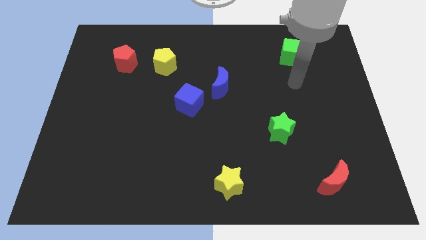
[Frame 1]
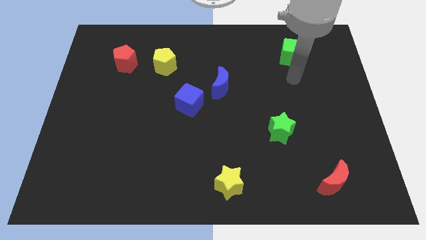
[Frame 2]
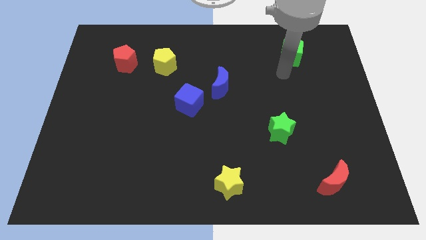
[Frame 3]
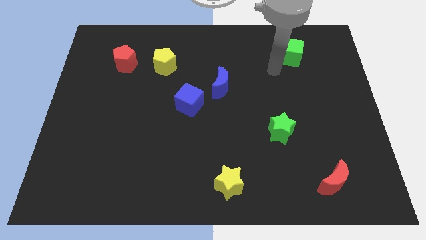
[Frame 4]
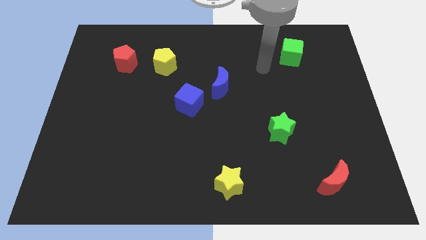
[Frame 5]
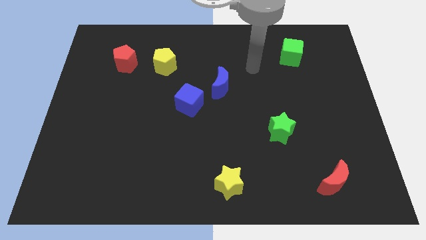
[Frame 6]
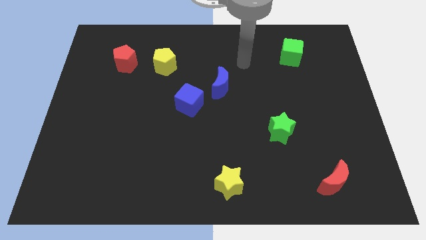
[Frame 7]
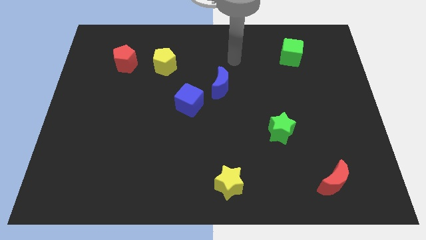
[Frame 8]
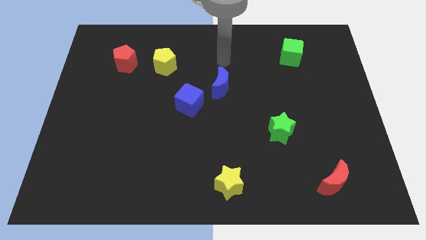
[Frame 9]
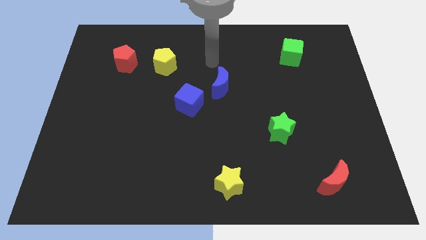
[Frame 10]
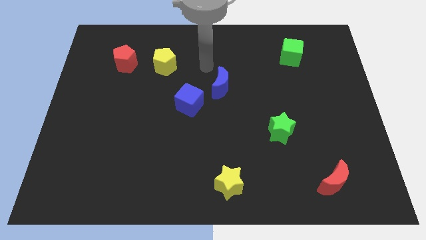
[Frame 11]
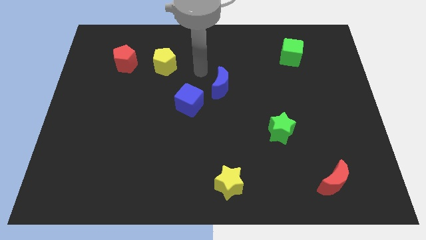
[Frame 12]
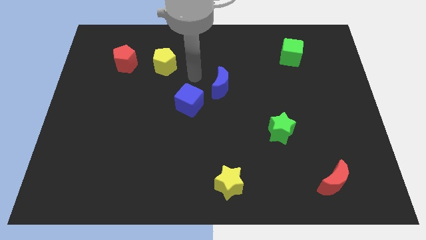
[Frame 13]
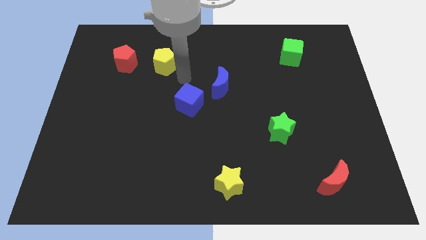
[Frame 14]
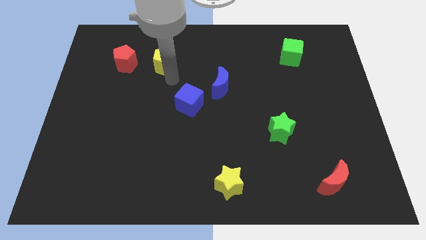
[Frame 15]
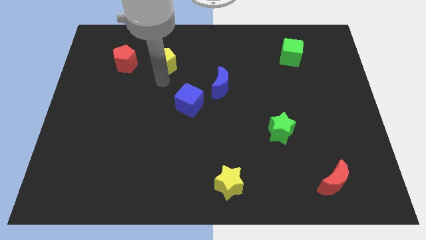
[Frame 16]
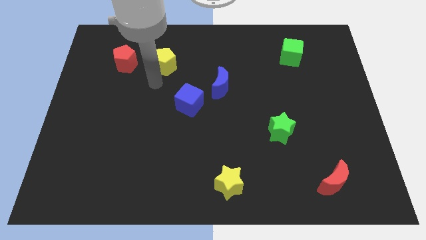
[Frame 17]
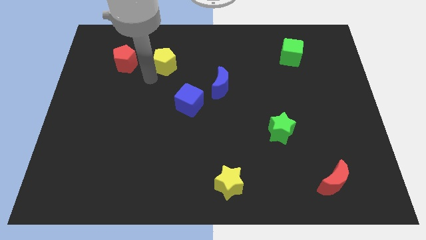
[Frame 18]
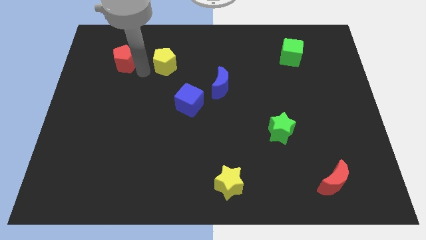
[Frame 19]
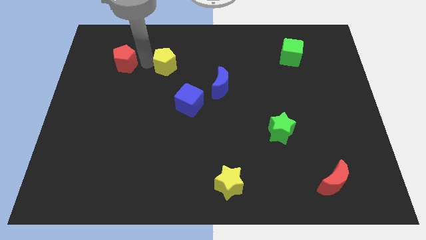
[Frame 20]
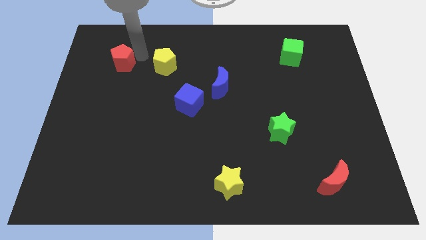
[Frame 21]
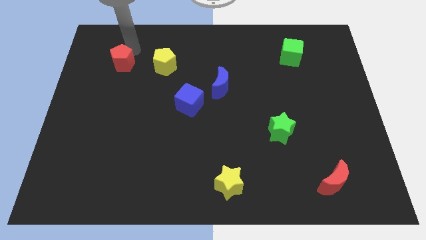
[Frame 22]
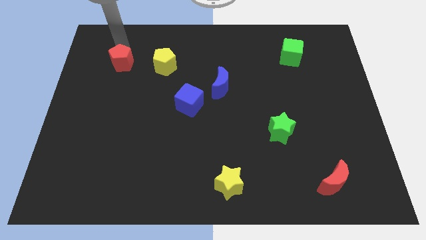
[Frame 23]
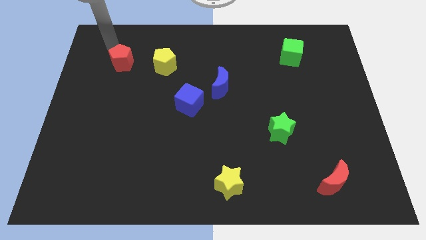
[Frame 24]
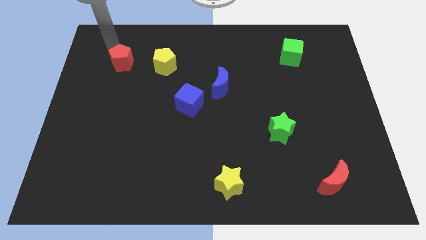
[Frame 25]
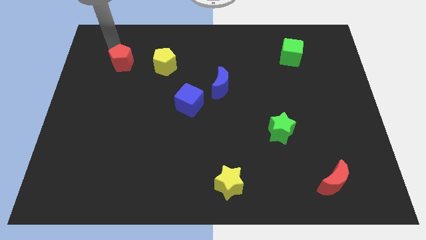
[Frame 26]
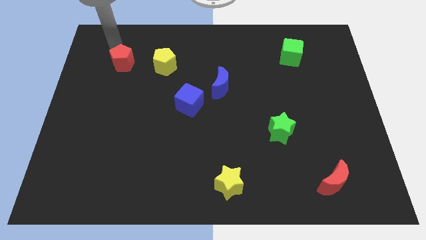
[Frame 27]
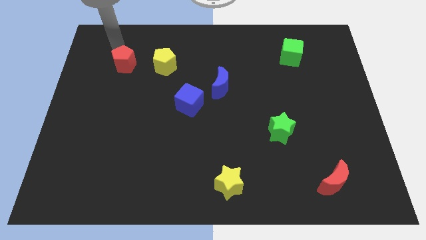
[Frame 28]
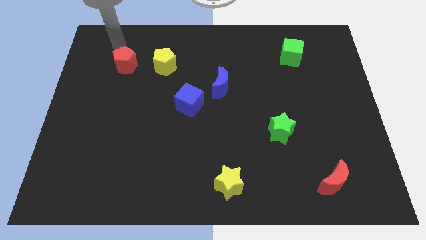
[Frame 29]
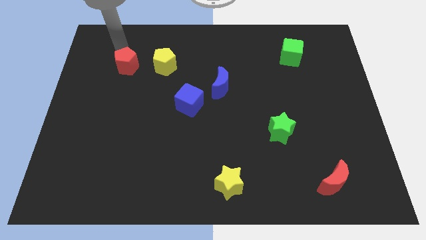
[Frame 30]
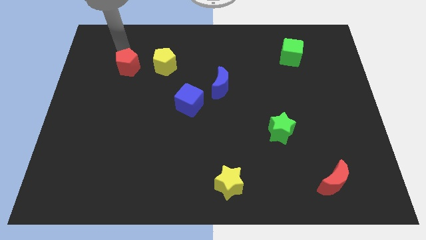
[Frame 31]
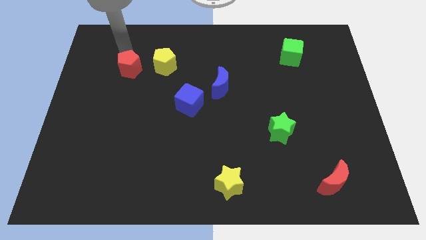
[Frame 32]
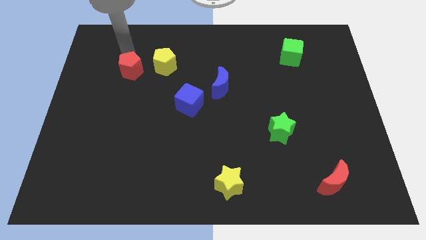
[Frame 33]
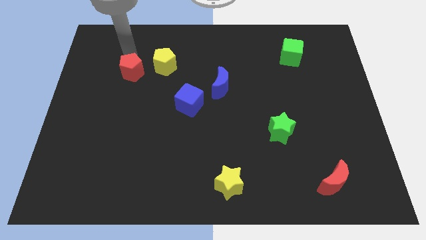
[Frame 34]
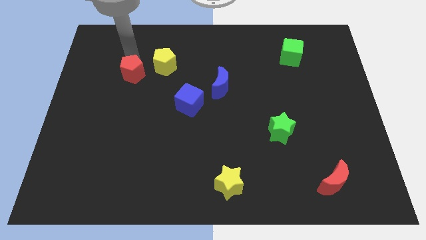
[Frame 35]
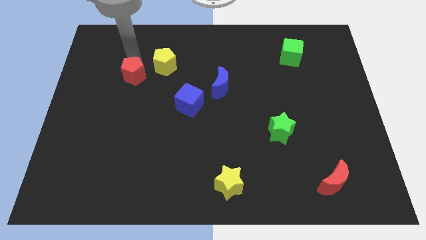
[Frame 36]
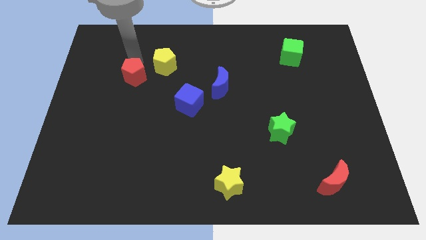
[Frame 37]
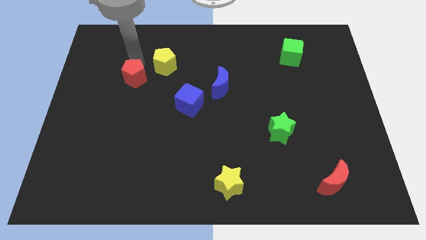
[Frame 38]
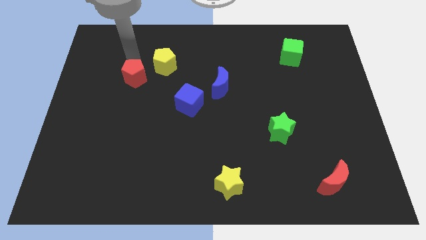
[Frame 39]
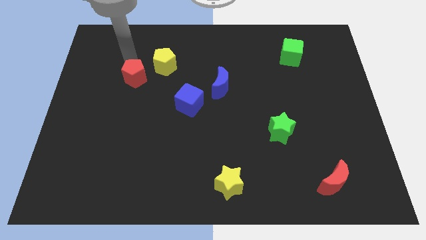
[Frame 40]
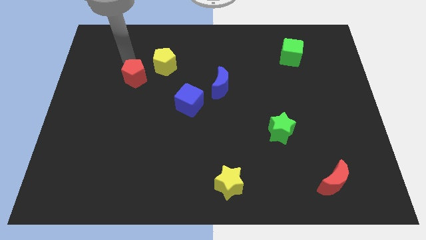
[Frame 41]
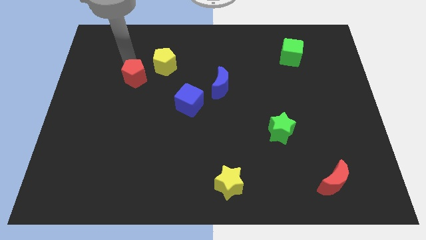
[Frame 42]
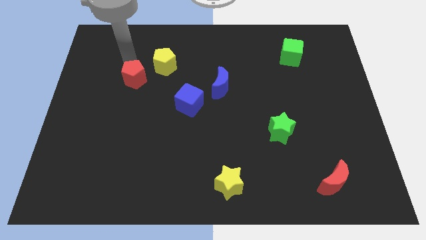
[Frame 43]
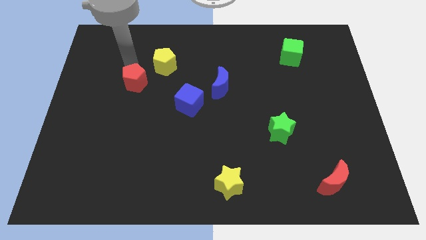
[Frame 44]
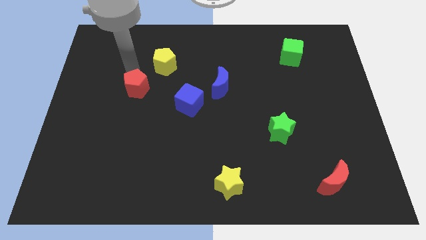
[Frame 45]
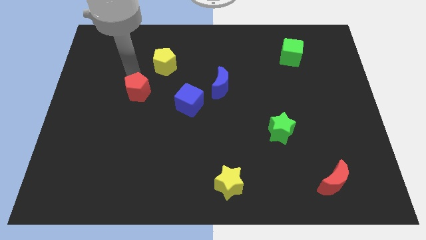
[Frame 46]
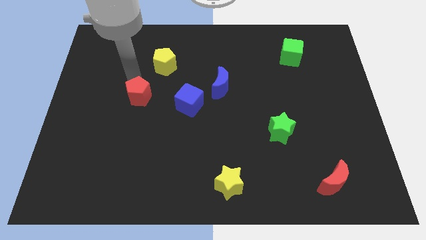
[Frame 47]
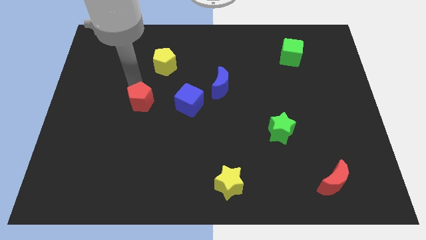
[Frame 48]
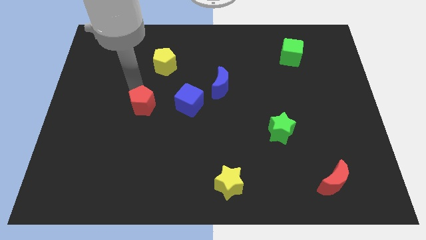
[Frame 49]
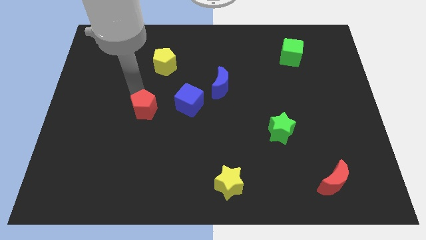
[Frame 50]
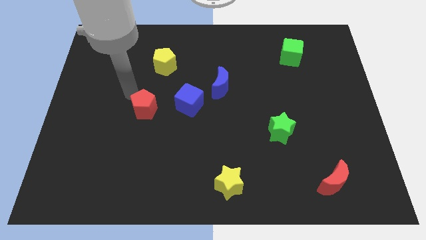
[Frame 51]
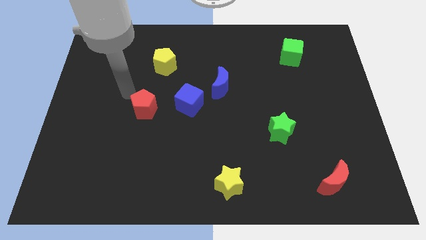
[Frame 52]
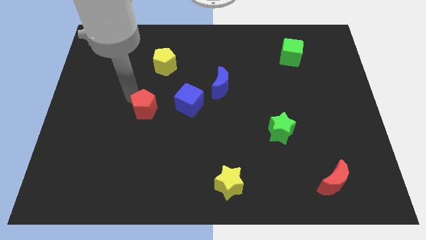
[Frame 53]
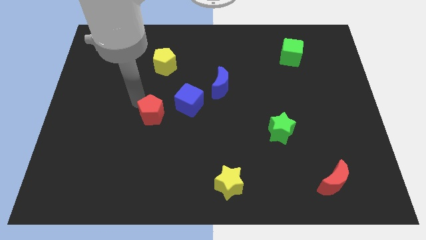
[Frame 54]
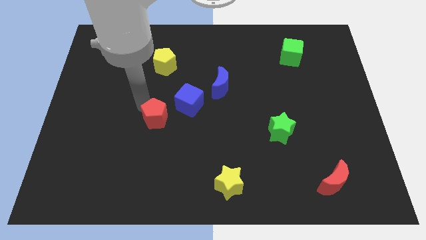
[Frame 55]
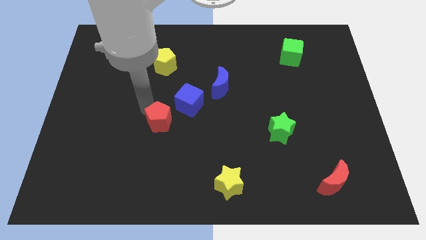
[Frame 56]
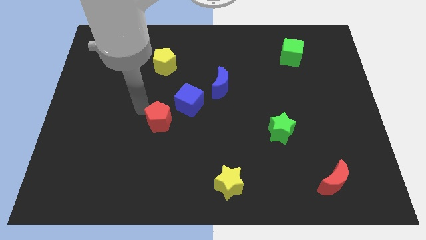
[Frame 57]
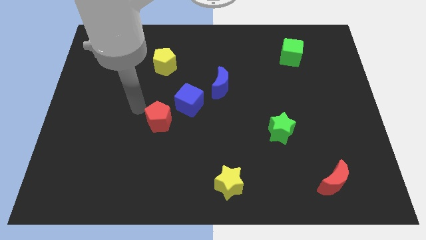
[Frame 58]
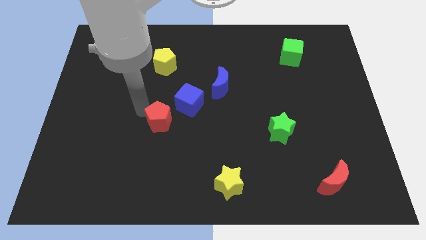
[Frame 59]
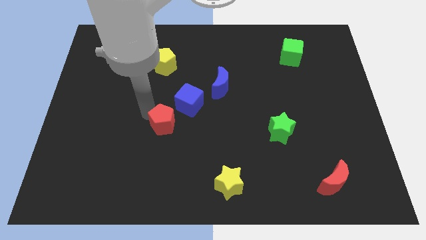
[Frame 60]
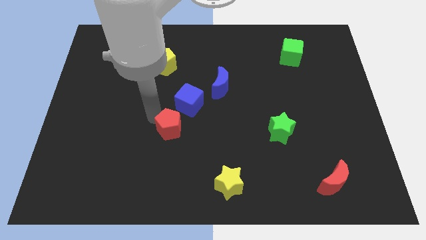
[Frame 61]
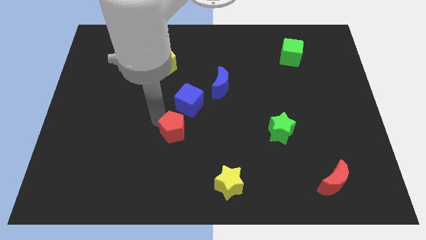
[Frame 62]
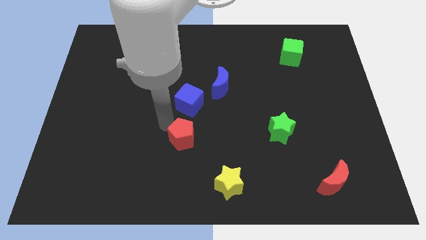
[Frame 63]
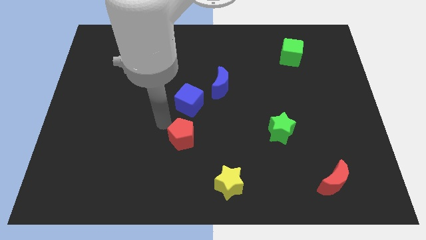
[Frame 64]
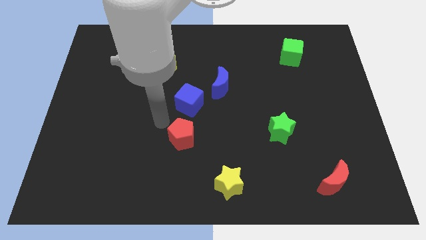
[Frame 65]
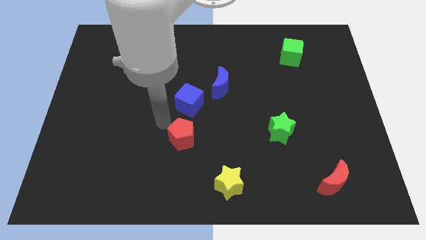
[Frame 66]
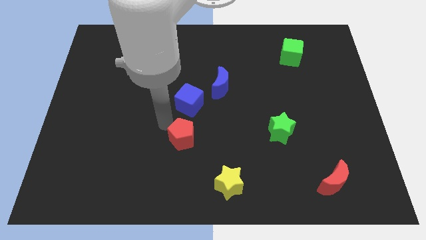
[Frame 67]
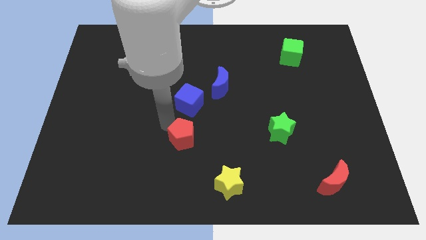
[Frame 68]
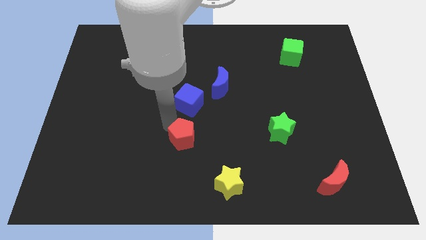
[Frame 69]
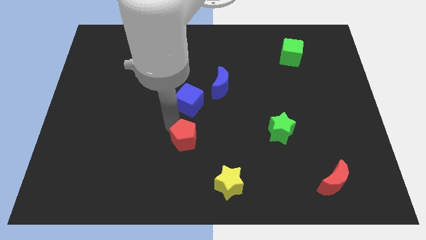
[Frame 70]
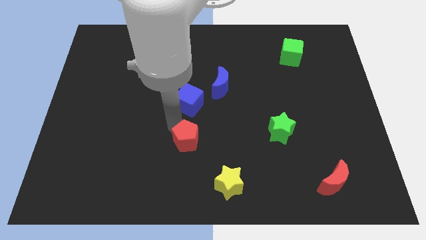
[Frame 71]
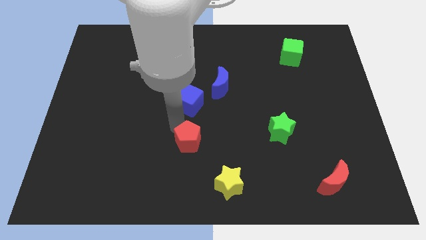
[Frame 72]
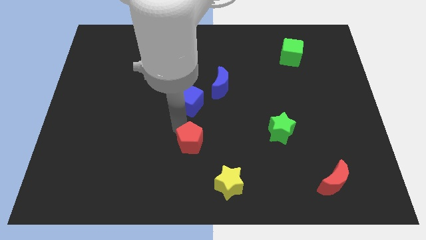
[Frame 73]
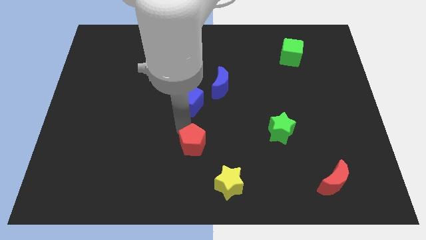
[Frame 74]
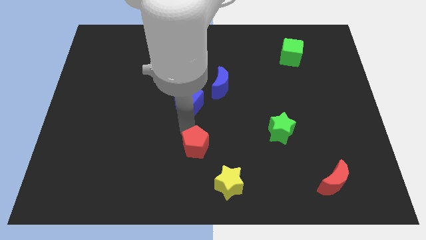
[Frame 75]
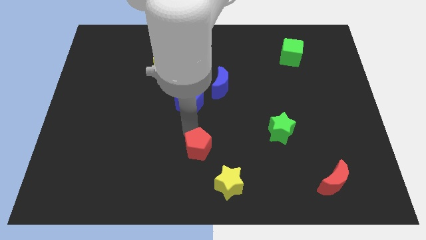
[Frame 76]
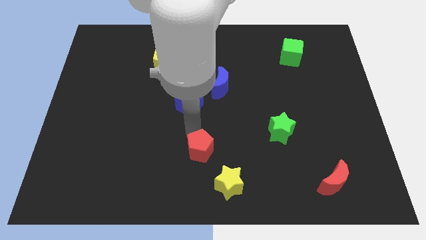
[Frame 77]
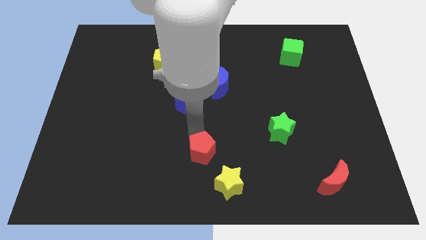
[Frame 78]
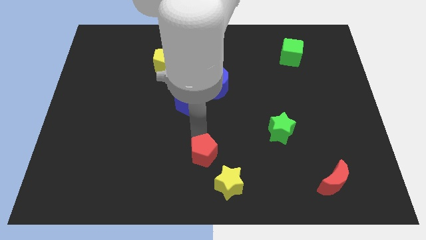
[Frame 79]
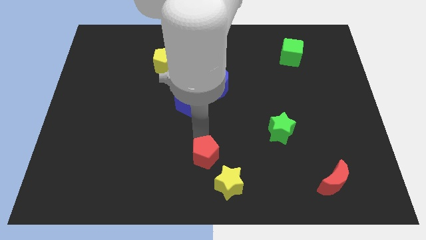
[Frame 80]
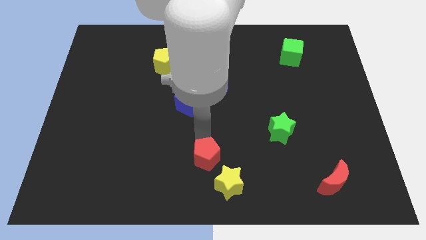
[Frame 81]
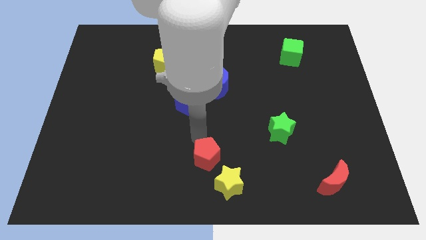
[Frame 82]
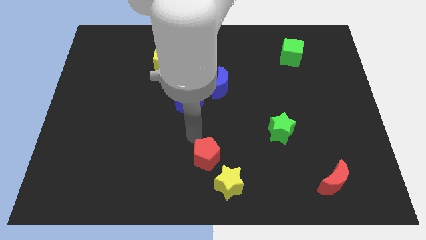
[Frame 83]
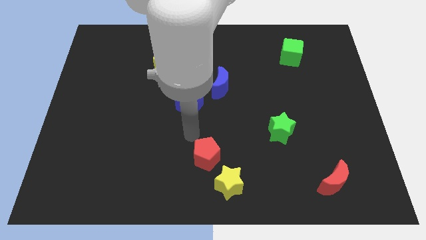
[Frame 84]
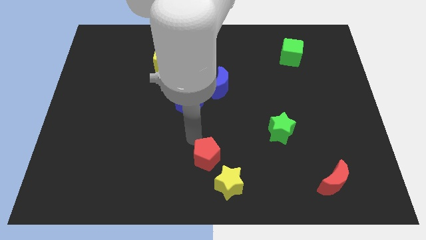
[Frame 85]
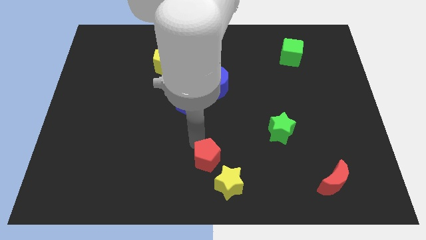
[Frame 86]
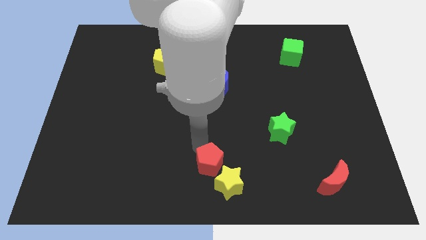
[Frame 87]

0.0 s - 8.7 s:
slide the red pentagon next to the yellow star
